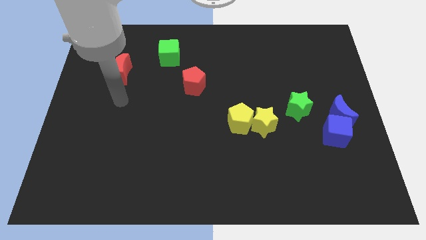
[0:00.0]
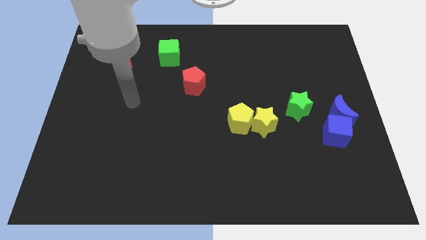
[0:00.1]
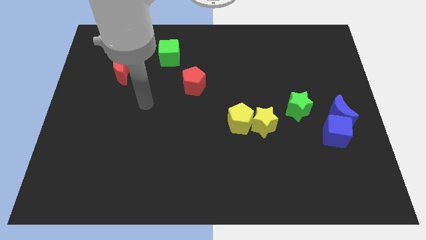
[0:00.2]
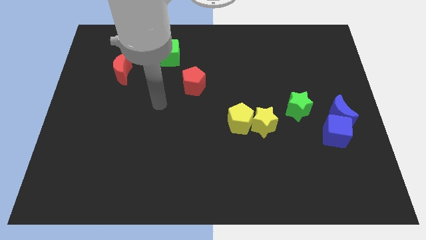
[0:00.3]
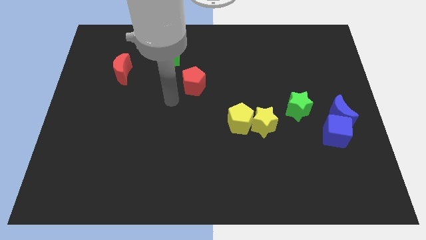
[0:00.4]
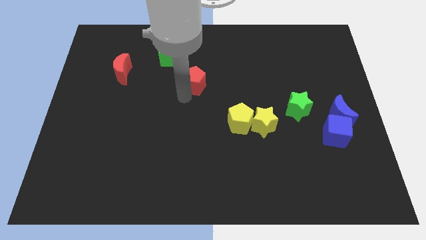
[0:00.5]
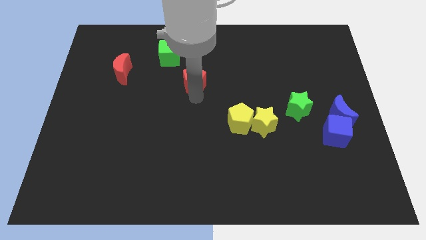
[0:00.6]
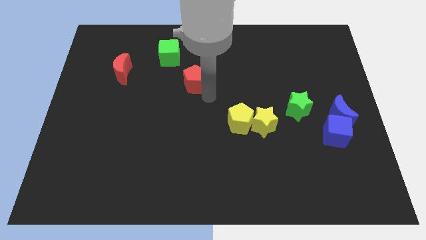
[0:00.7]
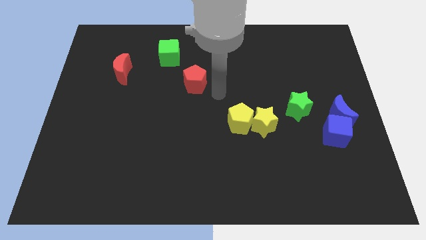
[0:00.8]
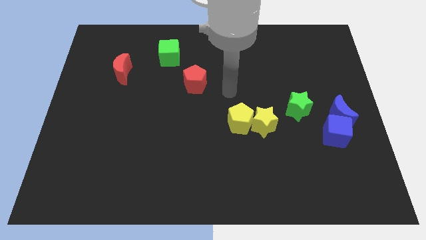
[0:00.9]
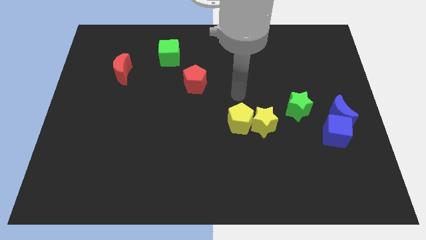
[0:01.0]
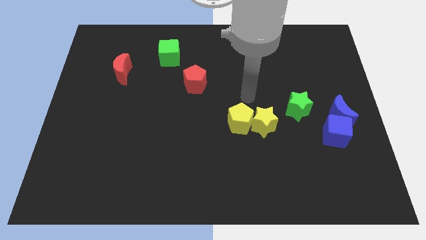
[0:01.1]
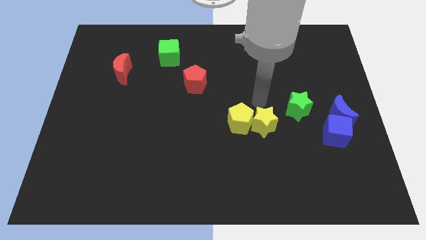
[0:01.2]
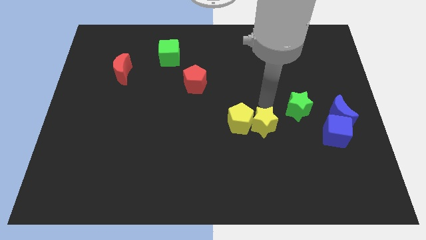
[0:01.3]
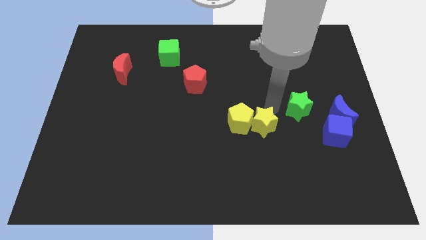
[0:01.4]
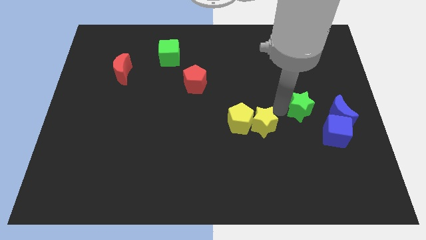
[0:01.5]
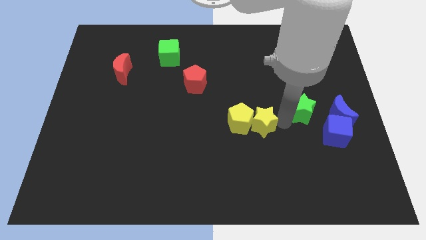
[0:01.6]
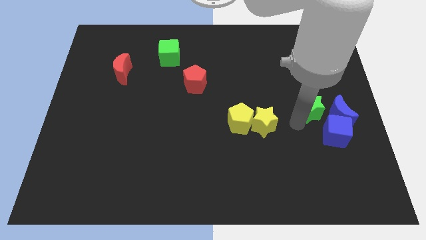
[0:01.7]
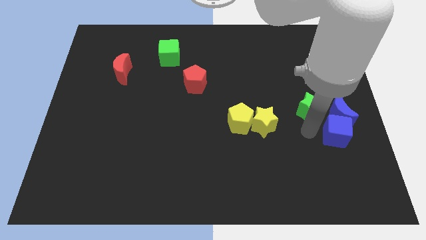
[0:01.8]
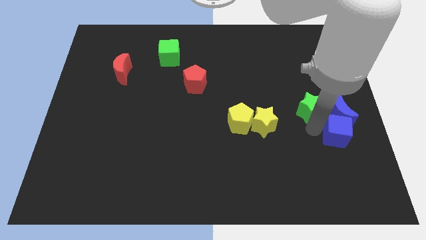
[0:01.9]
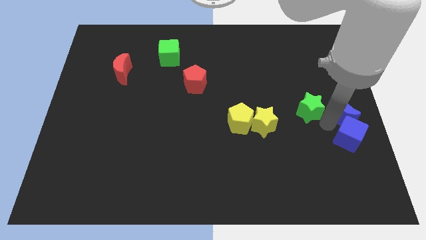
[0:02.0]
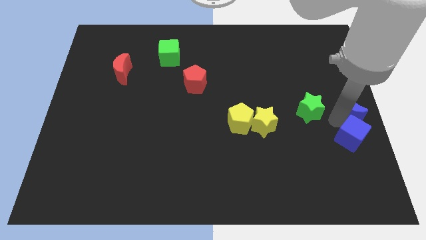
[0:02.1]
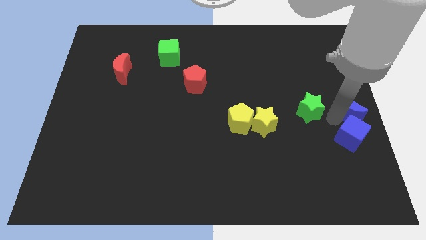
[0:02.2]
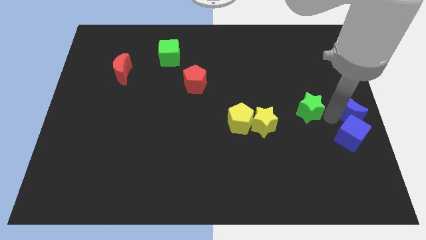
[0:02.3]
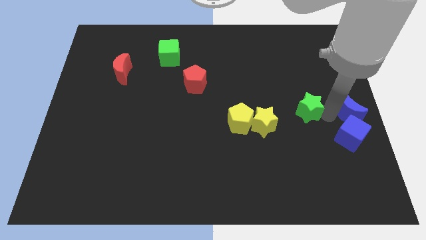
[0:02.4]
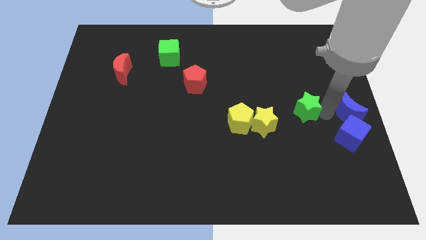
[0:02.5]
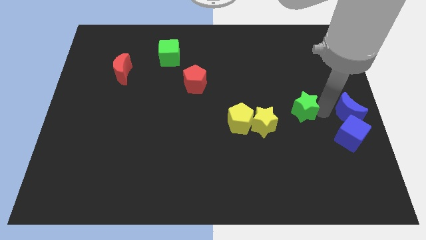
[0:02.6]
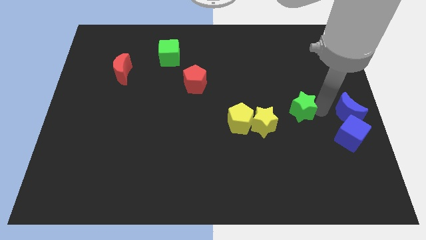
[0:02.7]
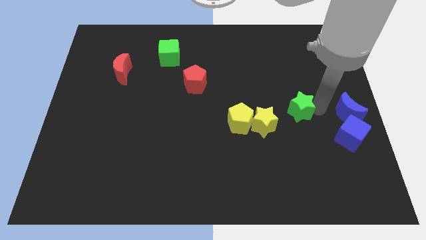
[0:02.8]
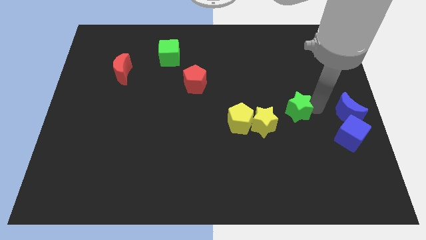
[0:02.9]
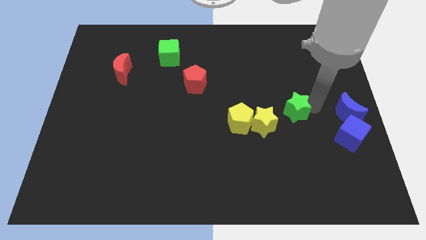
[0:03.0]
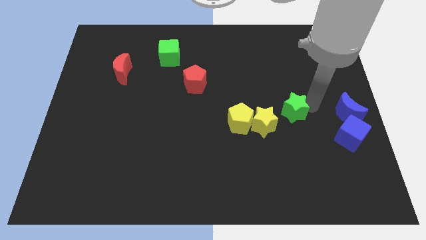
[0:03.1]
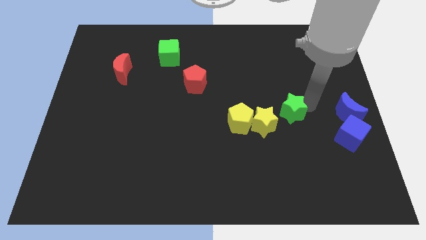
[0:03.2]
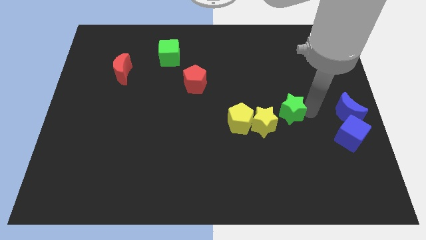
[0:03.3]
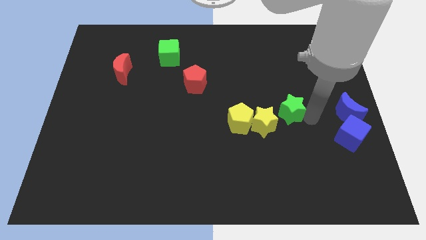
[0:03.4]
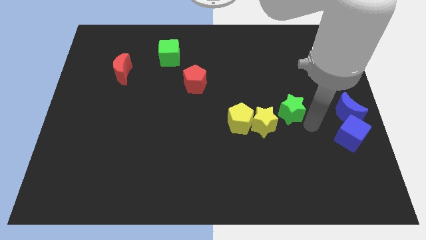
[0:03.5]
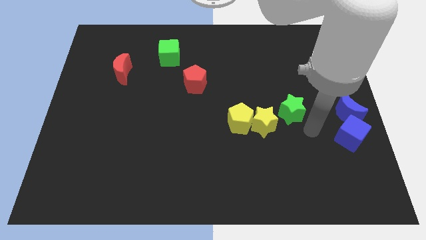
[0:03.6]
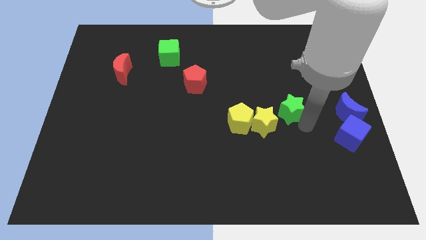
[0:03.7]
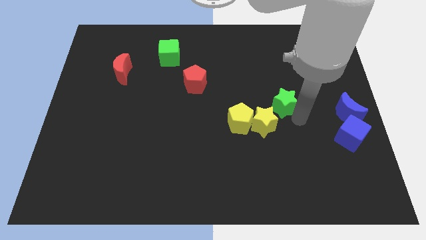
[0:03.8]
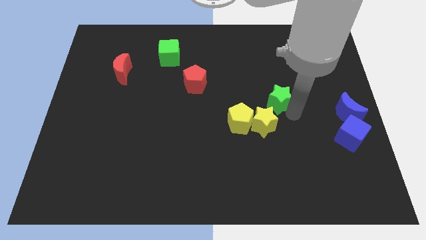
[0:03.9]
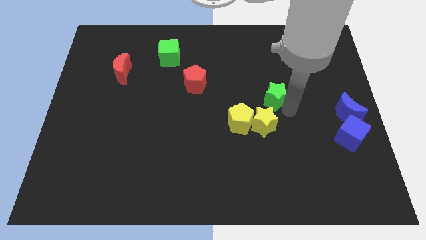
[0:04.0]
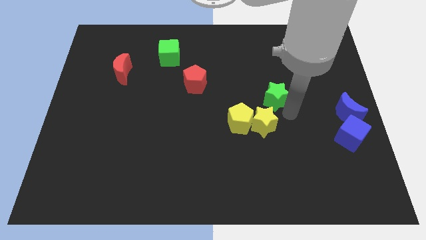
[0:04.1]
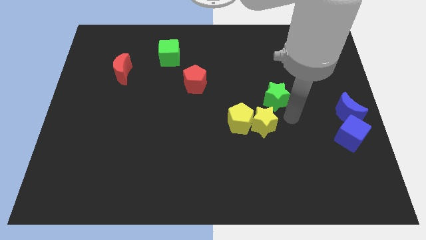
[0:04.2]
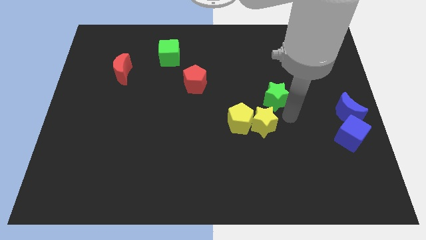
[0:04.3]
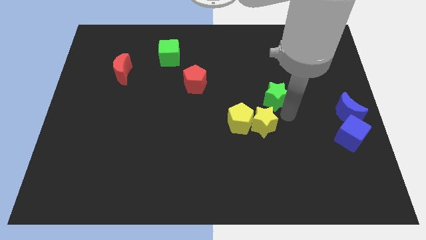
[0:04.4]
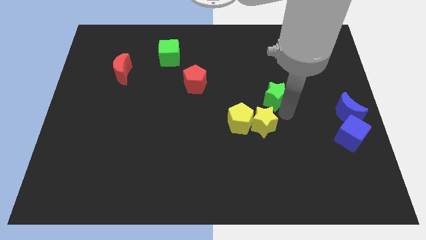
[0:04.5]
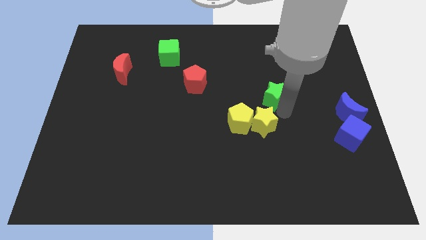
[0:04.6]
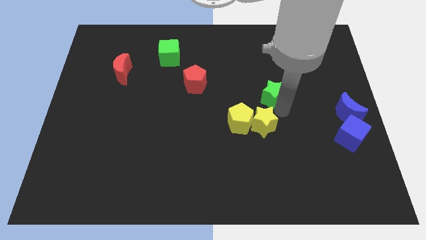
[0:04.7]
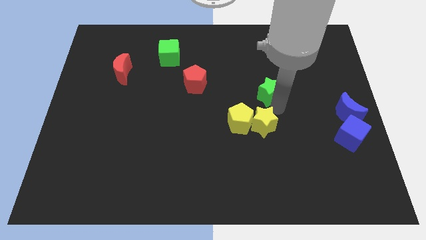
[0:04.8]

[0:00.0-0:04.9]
slightly move the green star up and left diagonally

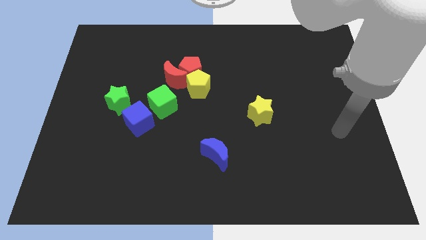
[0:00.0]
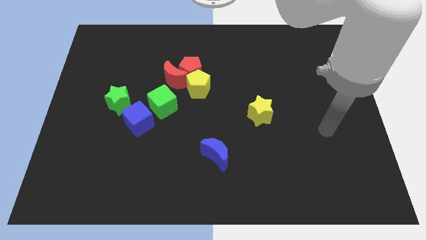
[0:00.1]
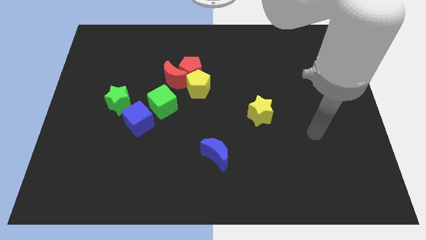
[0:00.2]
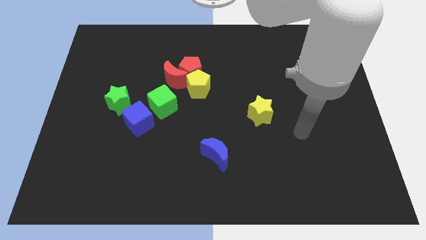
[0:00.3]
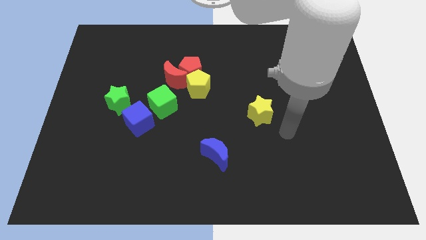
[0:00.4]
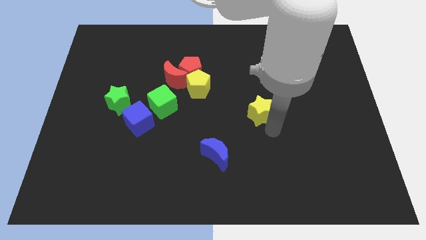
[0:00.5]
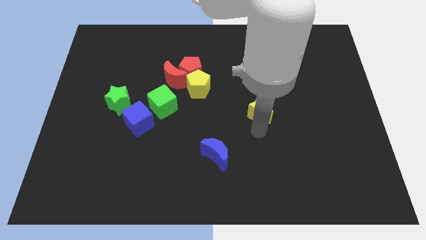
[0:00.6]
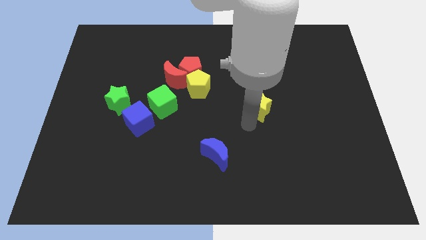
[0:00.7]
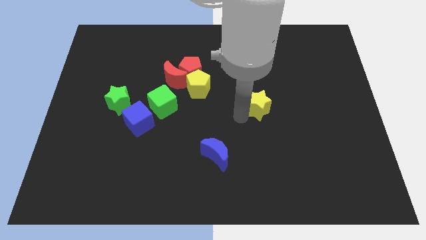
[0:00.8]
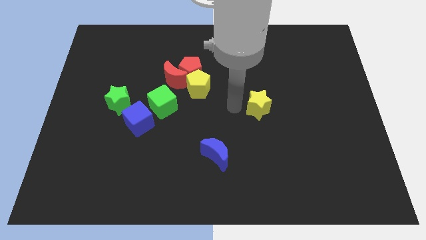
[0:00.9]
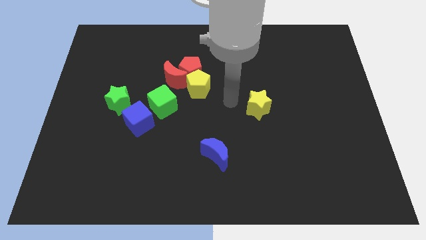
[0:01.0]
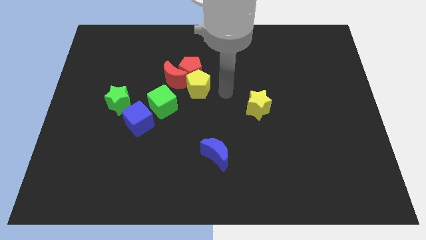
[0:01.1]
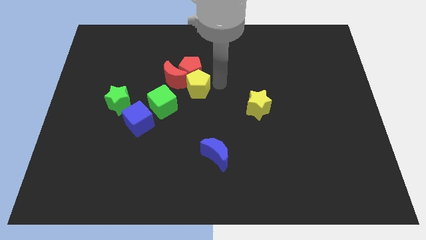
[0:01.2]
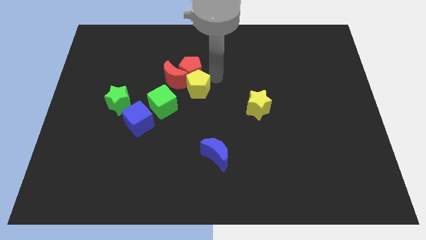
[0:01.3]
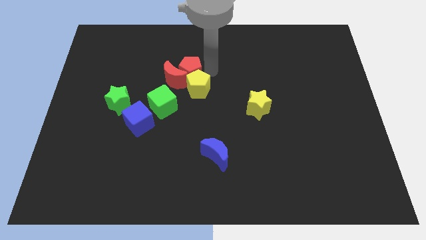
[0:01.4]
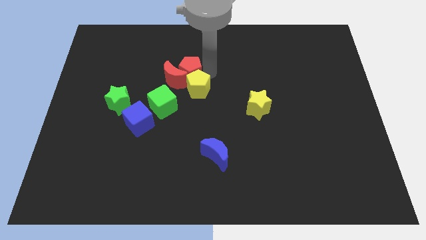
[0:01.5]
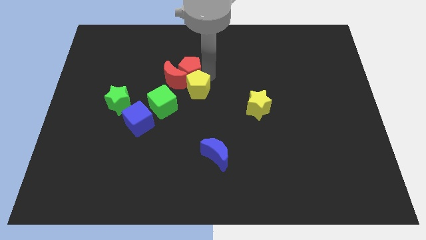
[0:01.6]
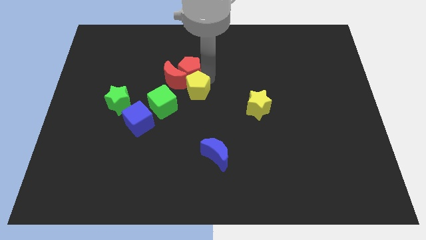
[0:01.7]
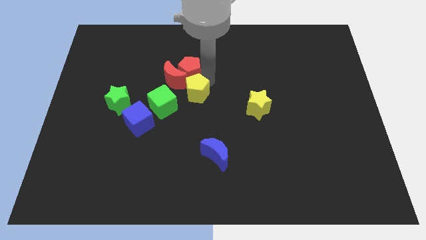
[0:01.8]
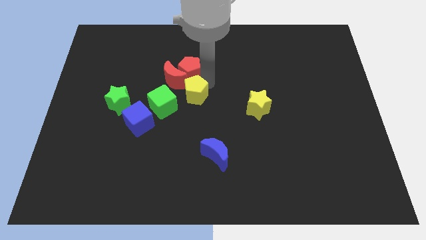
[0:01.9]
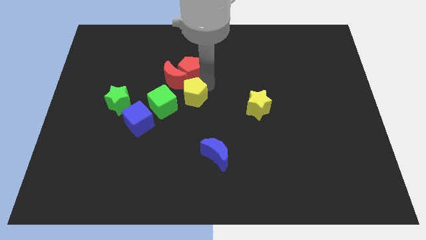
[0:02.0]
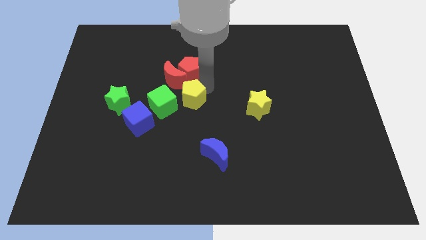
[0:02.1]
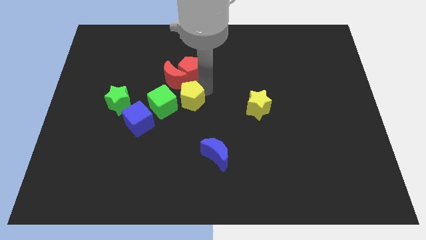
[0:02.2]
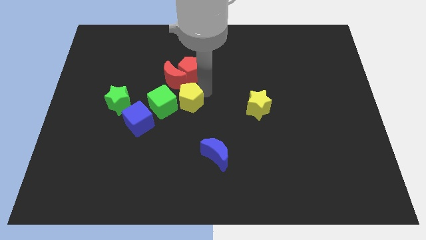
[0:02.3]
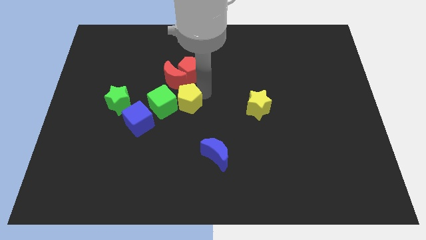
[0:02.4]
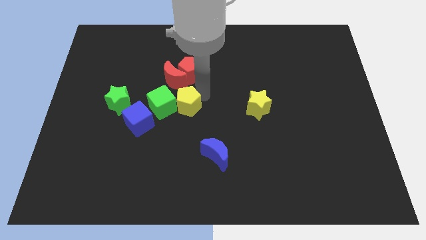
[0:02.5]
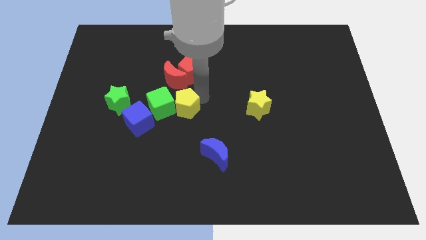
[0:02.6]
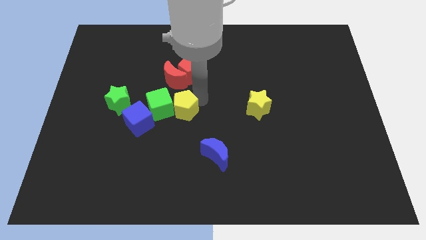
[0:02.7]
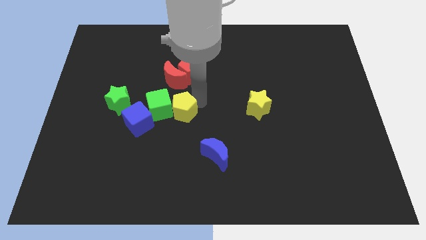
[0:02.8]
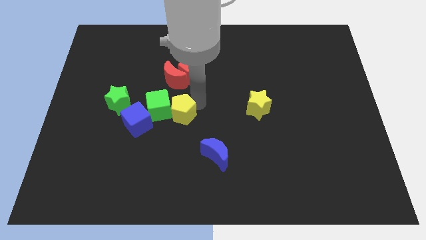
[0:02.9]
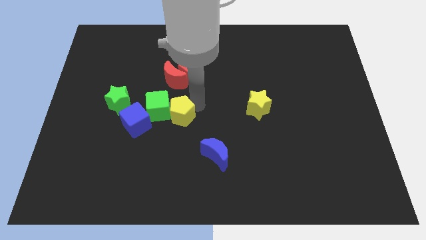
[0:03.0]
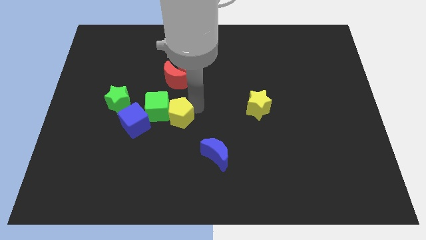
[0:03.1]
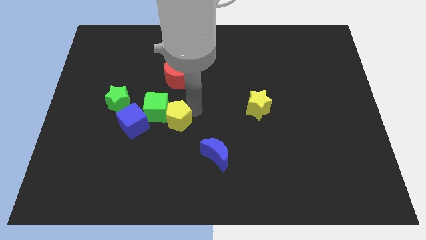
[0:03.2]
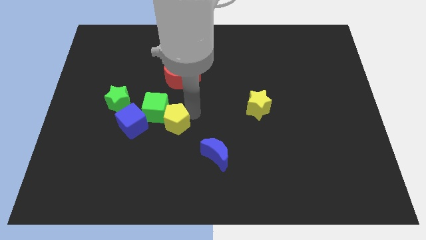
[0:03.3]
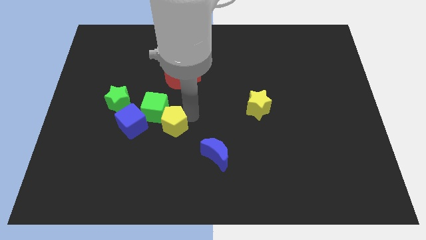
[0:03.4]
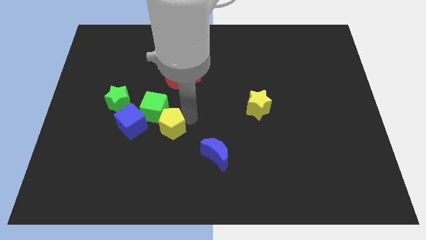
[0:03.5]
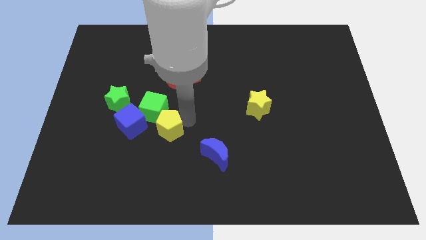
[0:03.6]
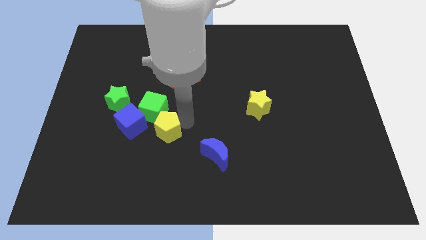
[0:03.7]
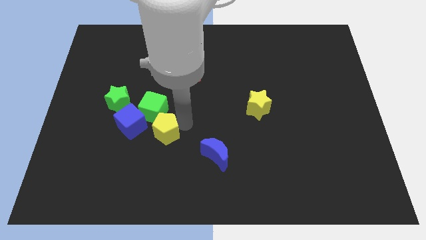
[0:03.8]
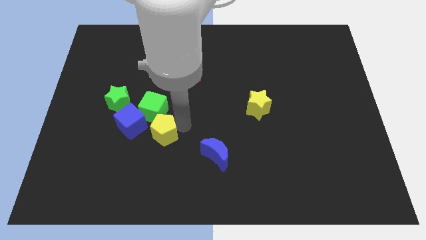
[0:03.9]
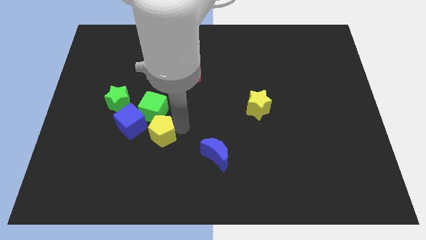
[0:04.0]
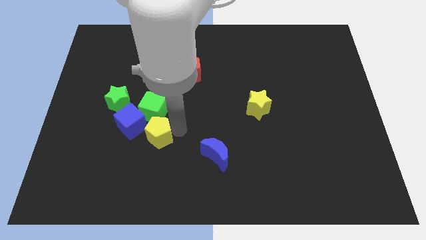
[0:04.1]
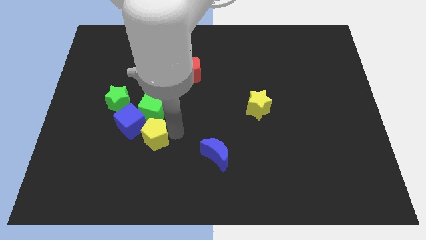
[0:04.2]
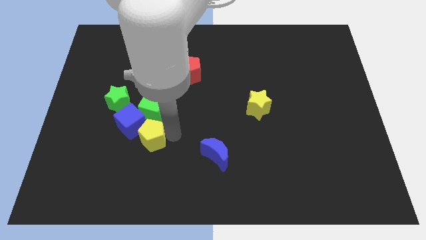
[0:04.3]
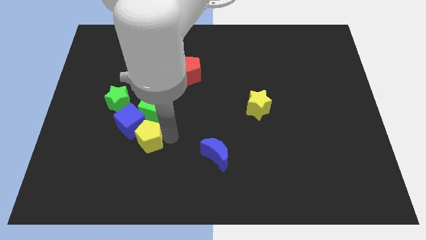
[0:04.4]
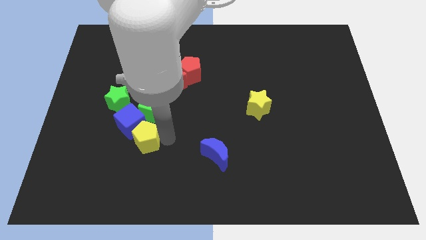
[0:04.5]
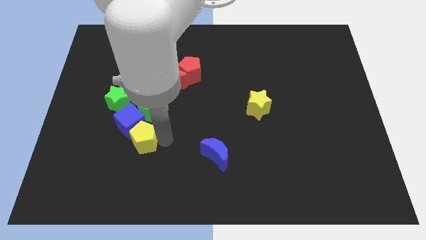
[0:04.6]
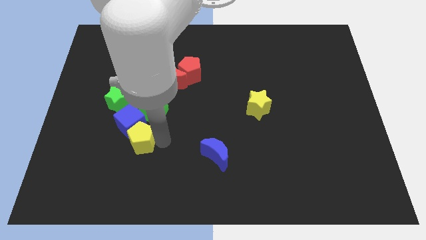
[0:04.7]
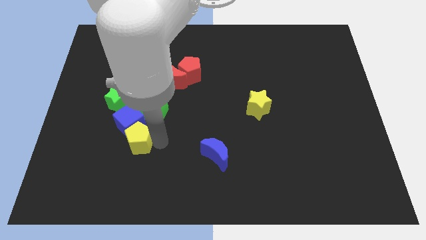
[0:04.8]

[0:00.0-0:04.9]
push the yellow pentagon down and left diagonally
